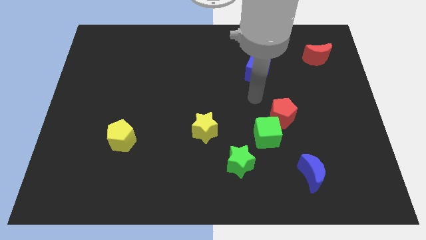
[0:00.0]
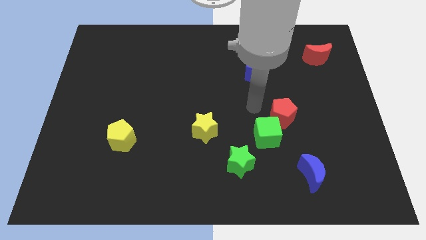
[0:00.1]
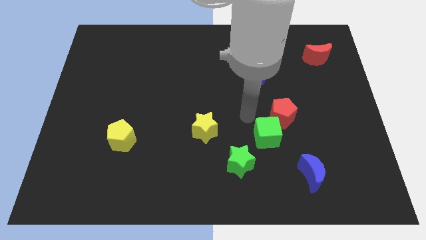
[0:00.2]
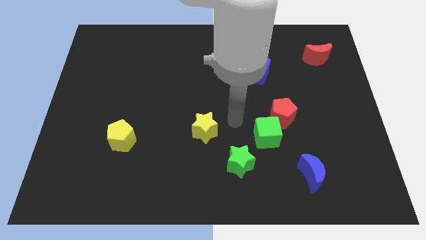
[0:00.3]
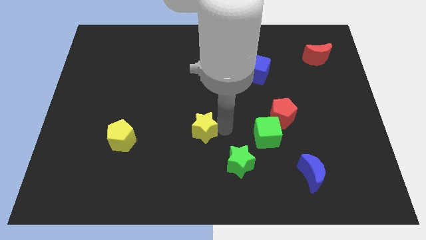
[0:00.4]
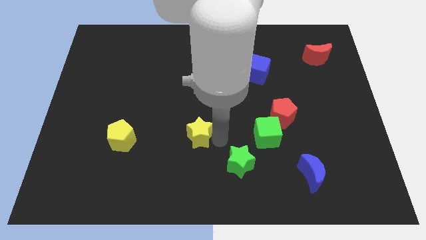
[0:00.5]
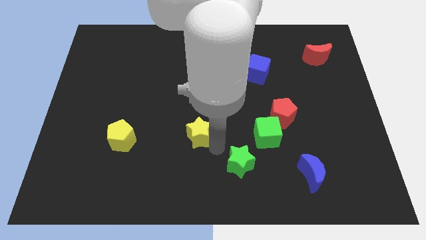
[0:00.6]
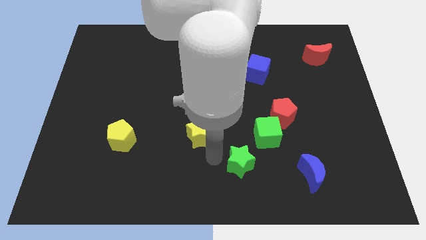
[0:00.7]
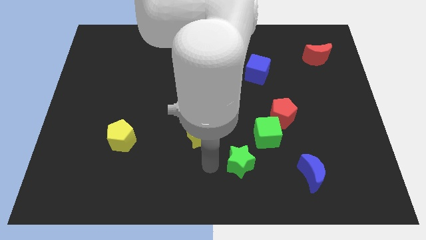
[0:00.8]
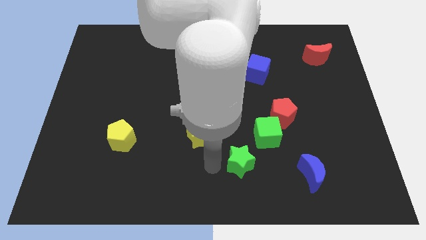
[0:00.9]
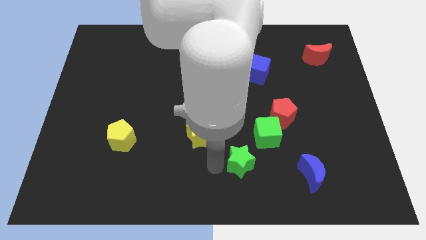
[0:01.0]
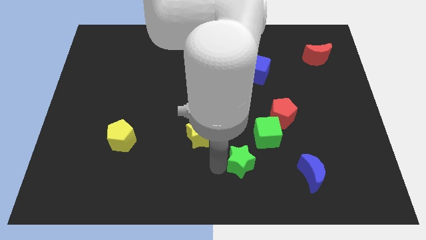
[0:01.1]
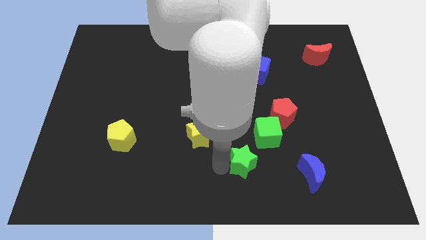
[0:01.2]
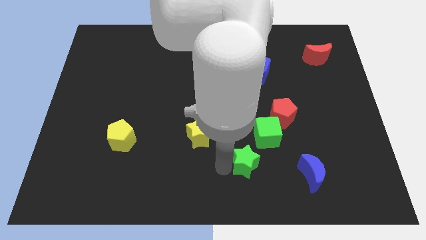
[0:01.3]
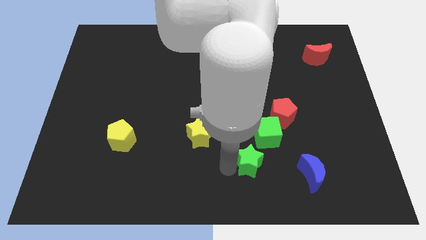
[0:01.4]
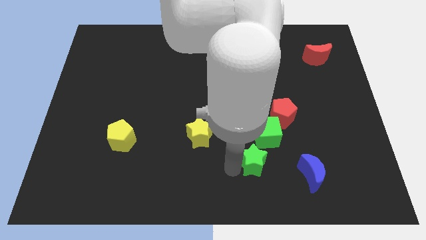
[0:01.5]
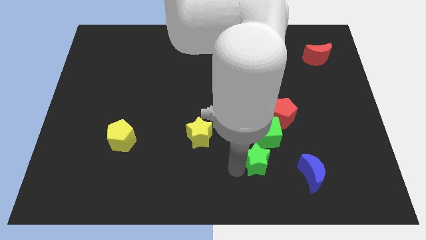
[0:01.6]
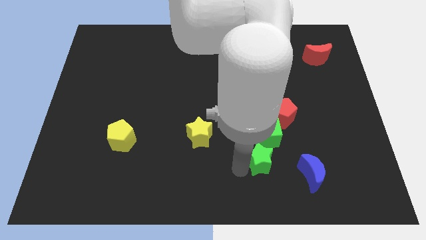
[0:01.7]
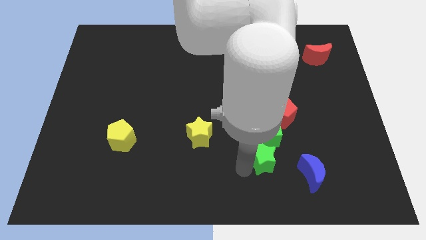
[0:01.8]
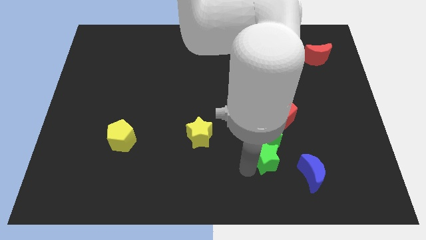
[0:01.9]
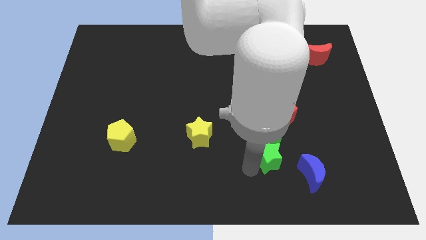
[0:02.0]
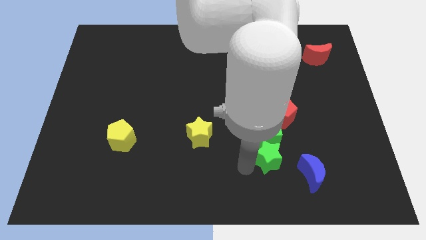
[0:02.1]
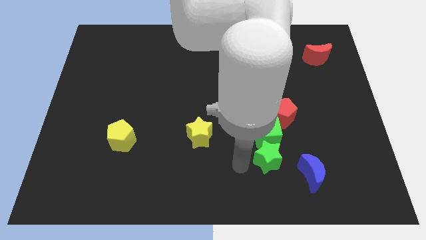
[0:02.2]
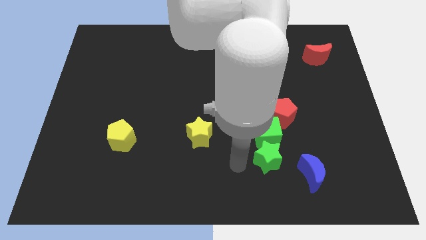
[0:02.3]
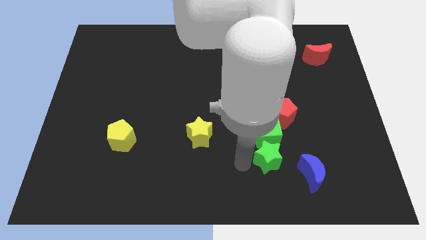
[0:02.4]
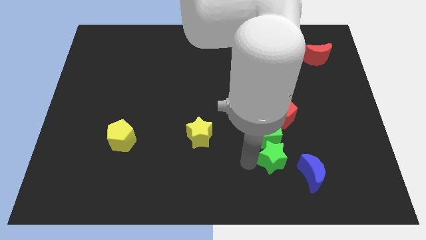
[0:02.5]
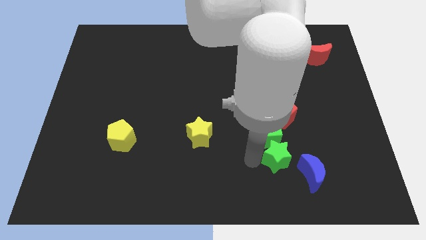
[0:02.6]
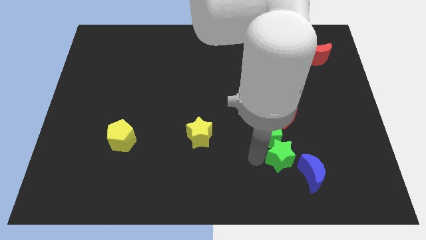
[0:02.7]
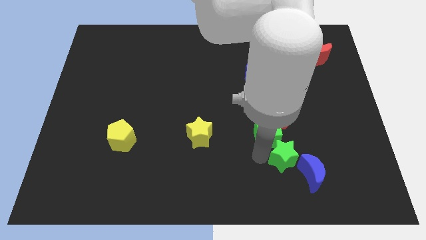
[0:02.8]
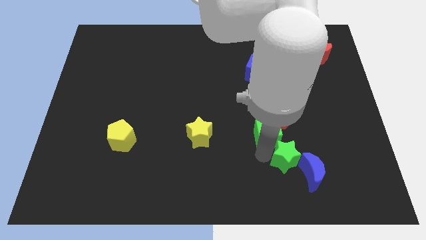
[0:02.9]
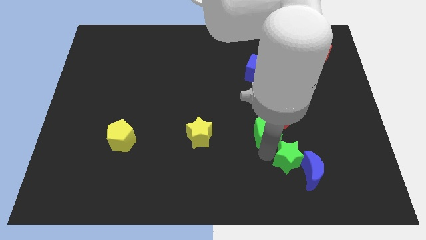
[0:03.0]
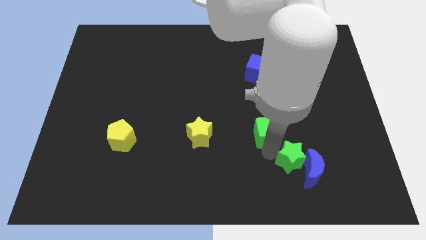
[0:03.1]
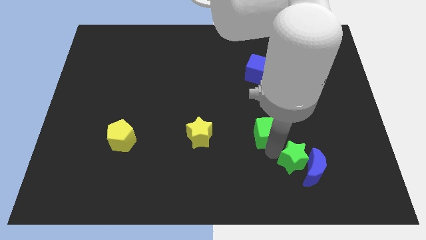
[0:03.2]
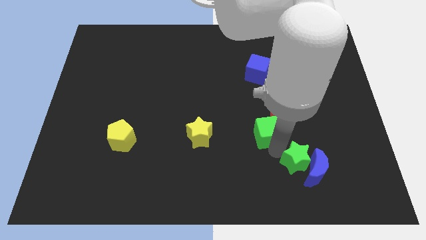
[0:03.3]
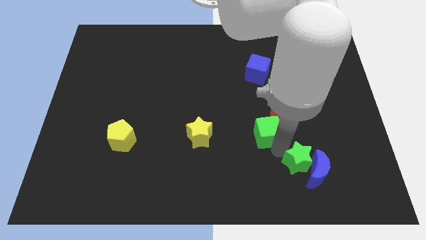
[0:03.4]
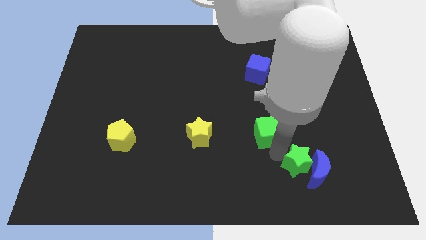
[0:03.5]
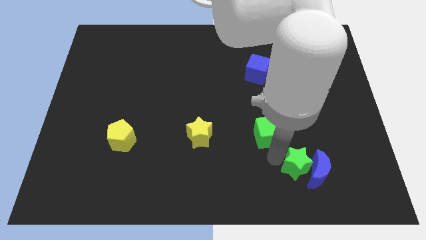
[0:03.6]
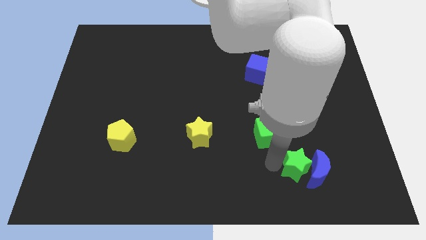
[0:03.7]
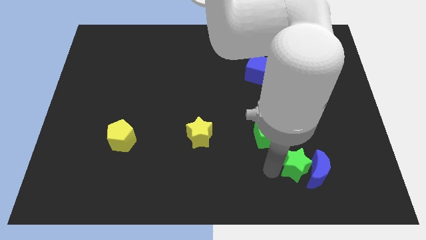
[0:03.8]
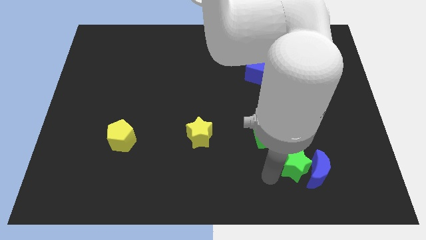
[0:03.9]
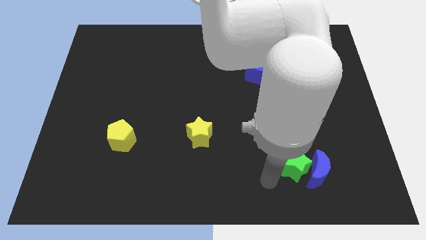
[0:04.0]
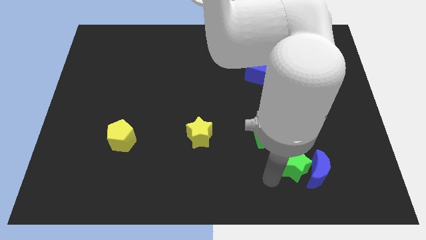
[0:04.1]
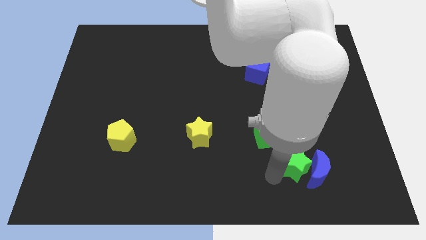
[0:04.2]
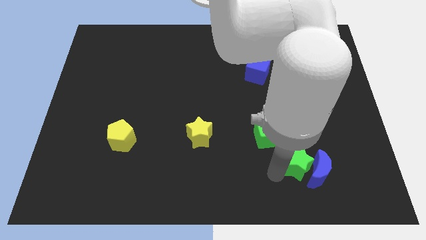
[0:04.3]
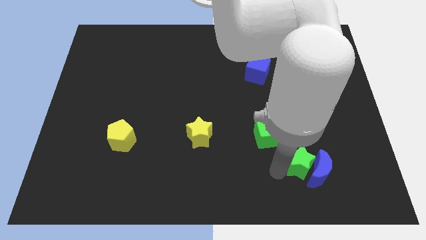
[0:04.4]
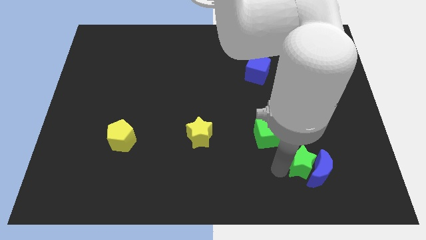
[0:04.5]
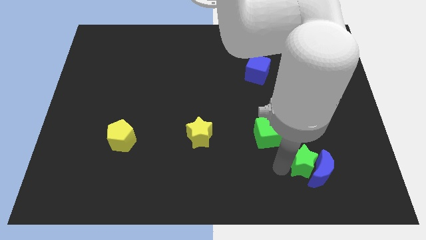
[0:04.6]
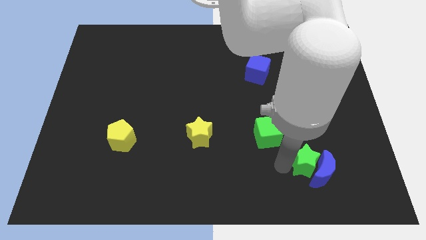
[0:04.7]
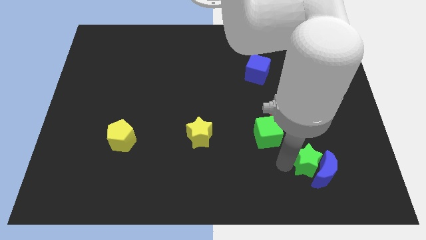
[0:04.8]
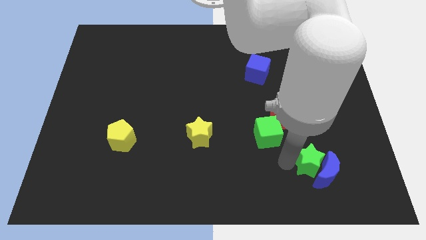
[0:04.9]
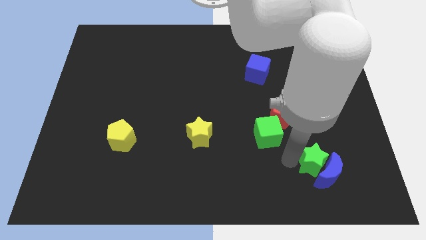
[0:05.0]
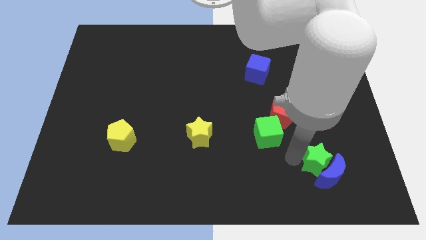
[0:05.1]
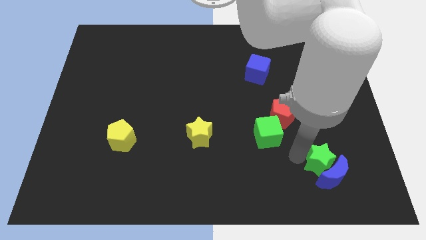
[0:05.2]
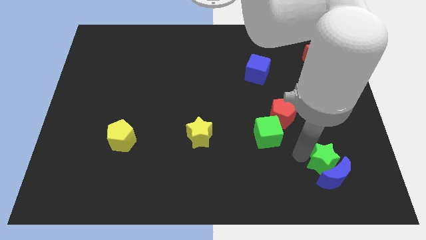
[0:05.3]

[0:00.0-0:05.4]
put the green star diagonally up and to the right of the blue moon

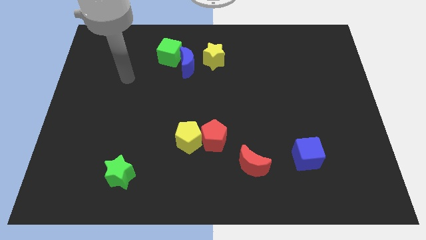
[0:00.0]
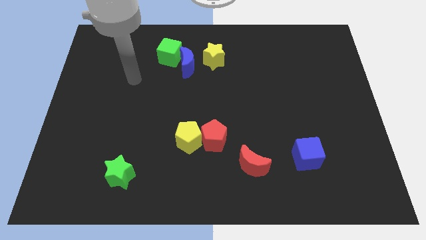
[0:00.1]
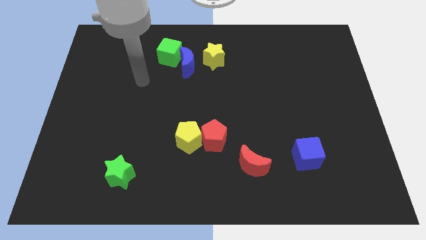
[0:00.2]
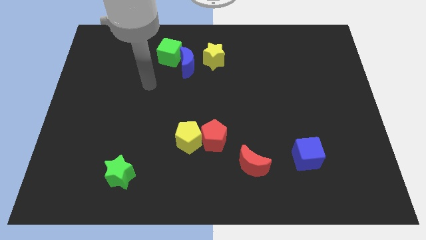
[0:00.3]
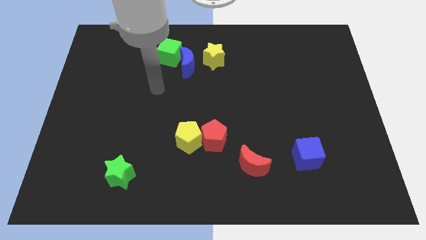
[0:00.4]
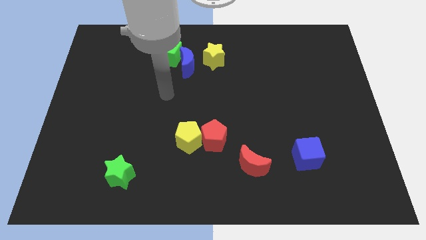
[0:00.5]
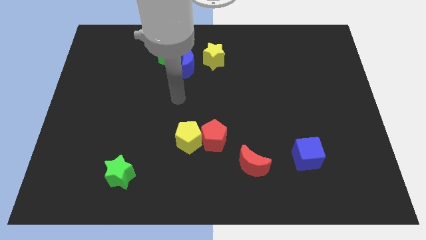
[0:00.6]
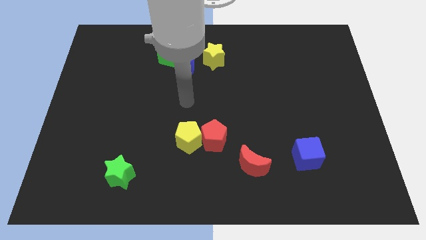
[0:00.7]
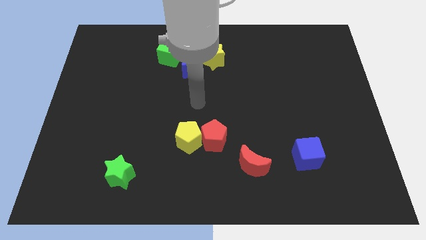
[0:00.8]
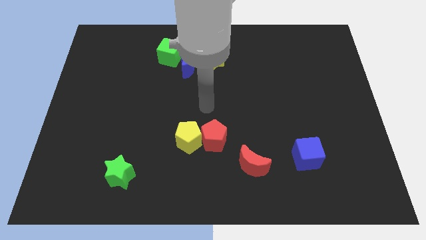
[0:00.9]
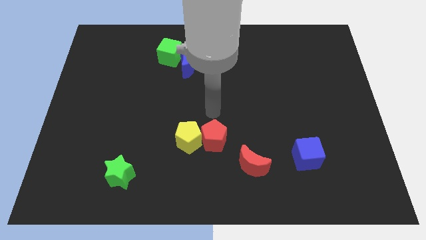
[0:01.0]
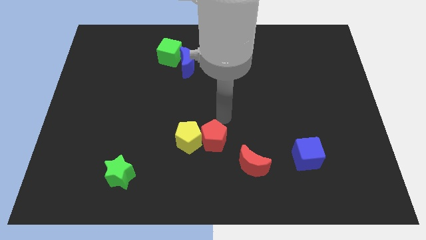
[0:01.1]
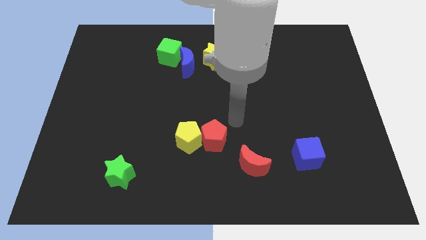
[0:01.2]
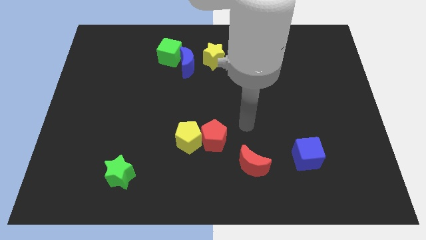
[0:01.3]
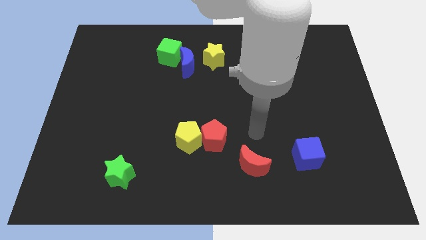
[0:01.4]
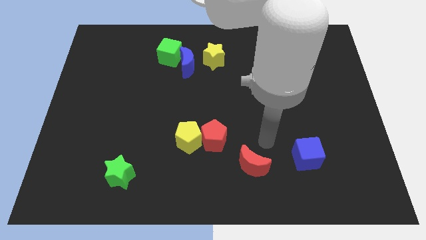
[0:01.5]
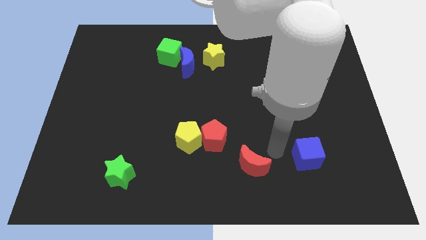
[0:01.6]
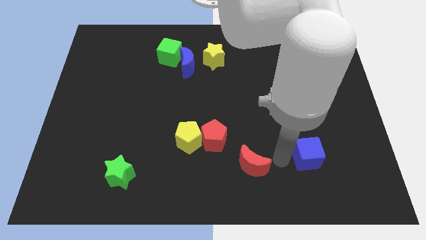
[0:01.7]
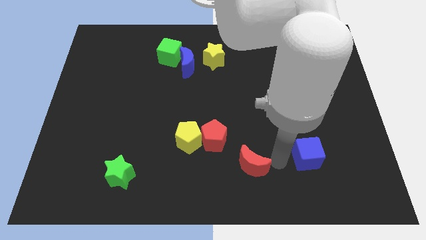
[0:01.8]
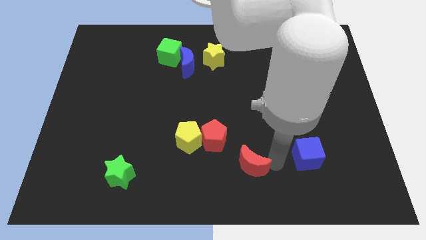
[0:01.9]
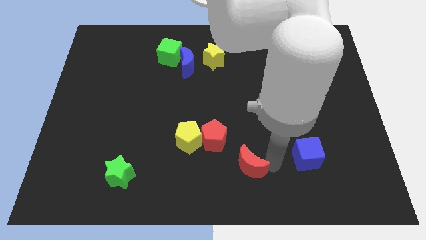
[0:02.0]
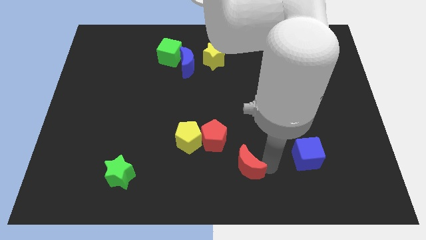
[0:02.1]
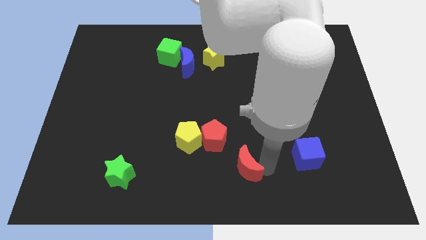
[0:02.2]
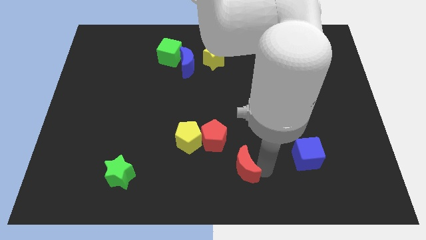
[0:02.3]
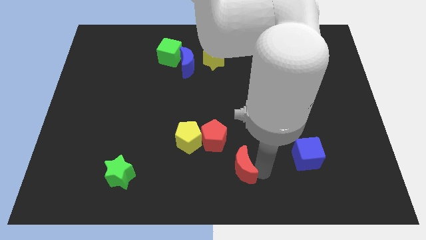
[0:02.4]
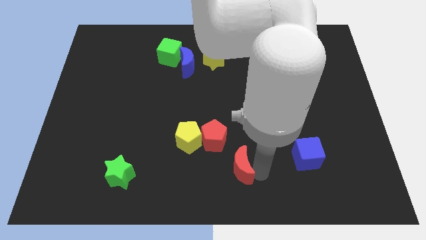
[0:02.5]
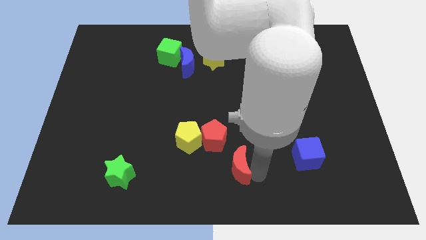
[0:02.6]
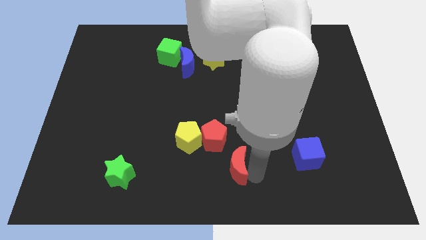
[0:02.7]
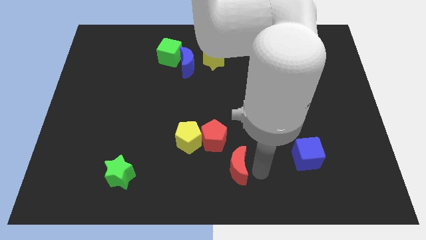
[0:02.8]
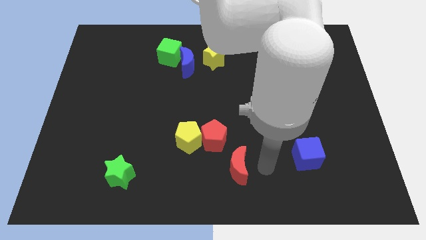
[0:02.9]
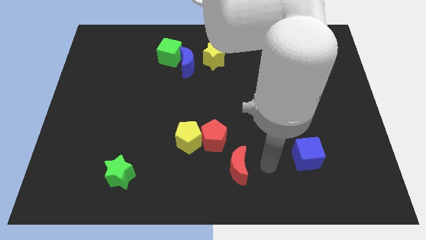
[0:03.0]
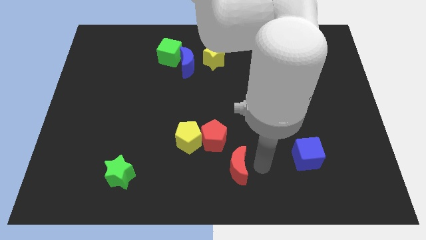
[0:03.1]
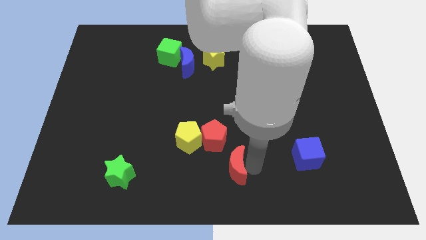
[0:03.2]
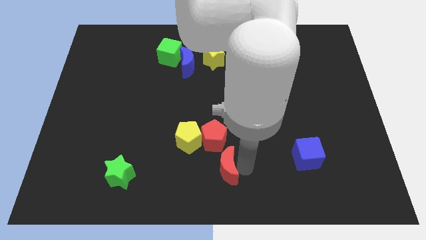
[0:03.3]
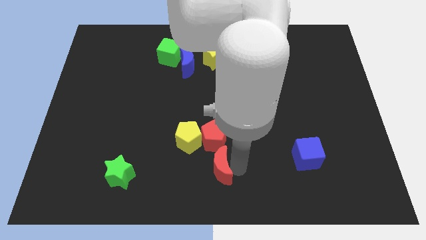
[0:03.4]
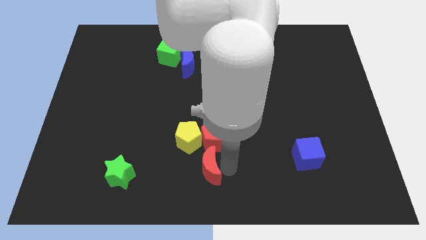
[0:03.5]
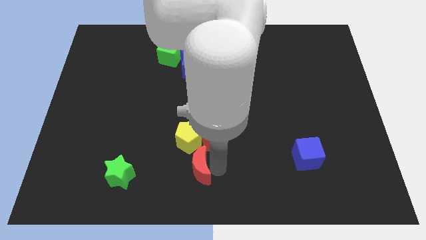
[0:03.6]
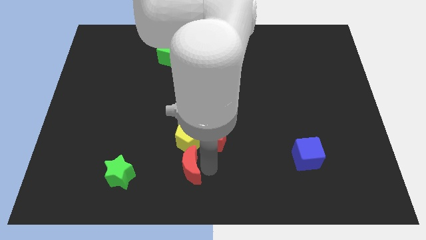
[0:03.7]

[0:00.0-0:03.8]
move the red moon just right of the green star
